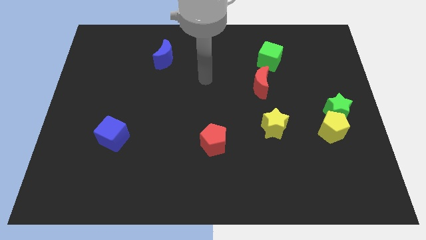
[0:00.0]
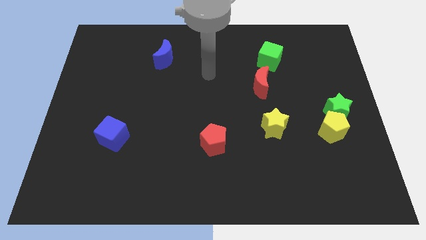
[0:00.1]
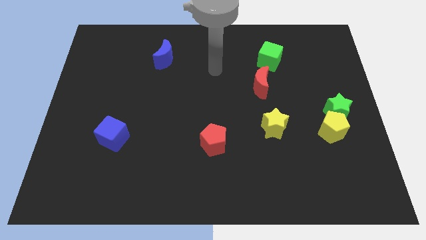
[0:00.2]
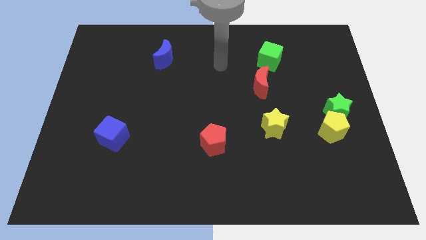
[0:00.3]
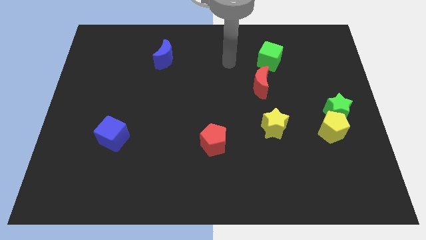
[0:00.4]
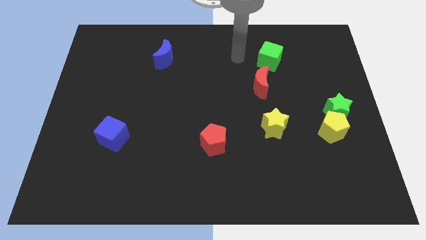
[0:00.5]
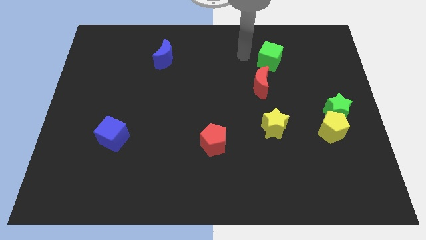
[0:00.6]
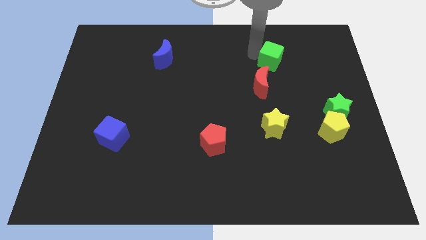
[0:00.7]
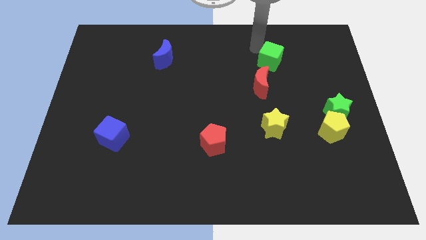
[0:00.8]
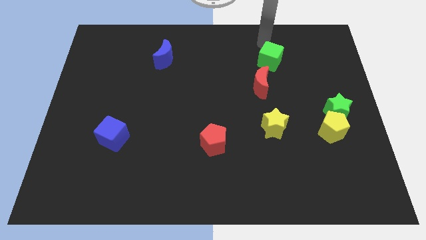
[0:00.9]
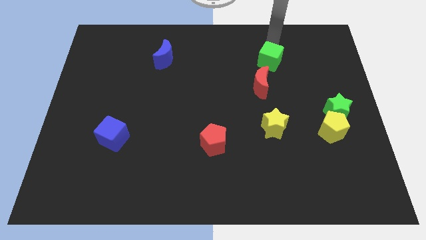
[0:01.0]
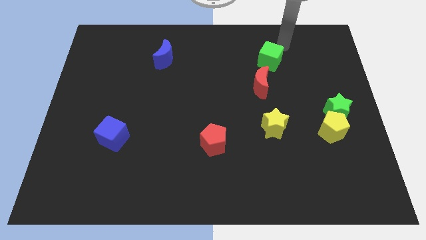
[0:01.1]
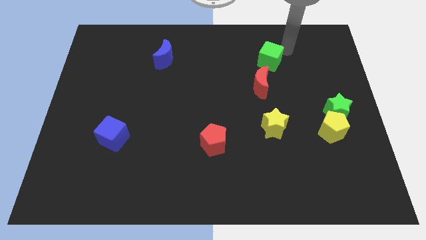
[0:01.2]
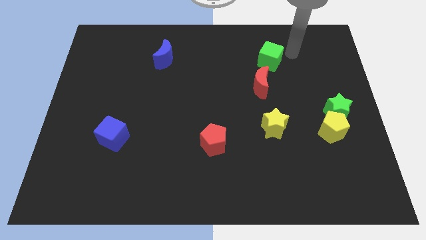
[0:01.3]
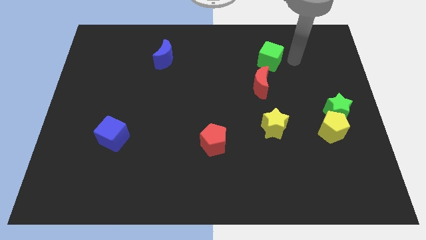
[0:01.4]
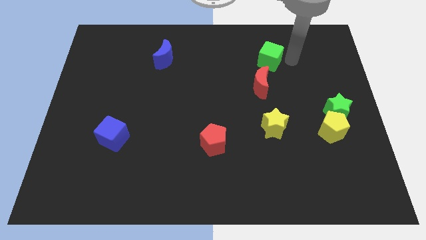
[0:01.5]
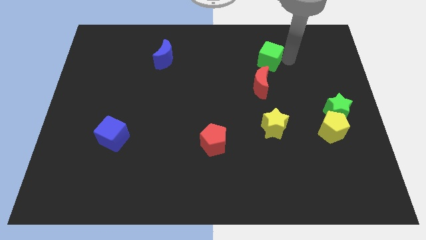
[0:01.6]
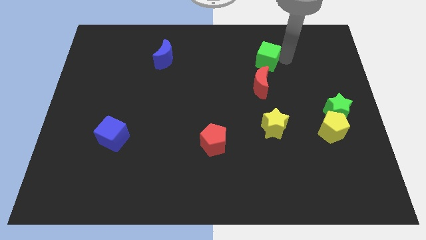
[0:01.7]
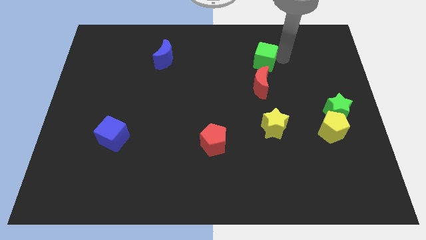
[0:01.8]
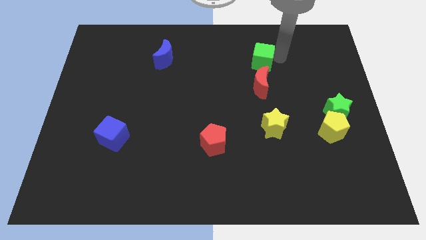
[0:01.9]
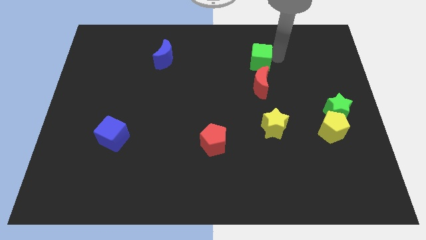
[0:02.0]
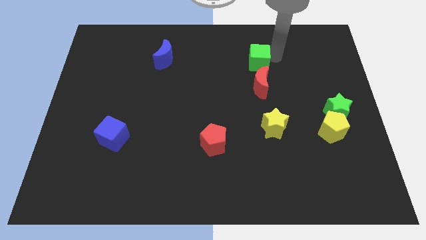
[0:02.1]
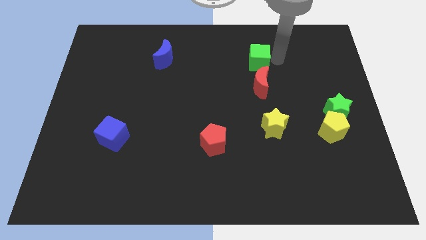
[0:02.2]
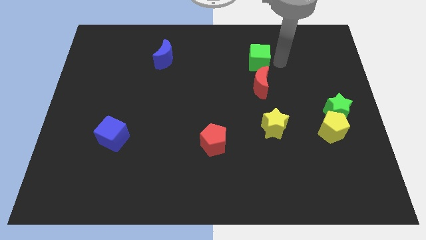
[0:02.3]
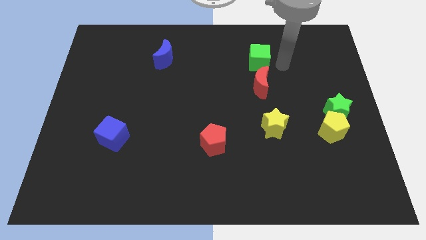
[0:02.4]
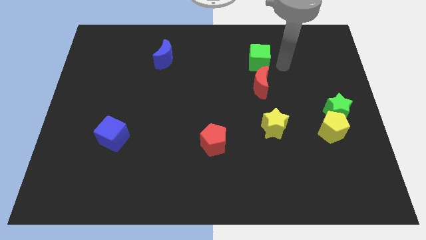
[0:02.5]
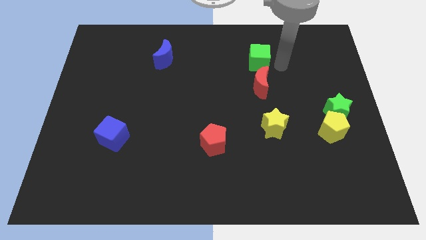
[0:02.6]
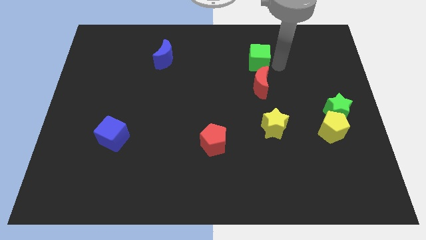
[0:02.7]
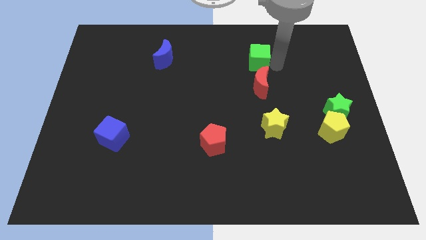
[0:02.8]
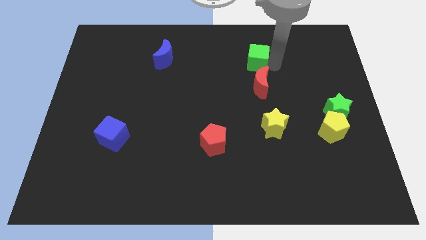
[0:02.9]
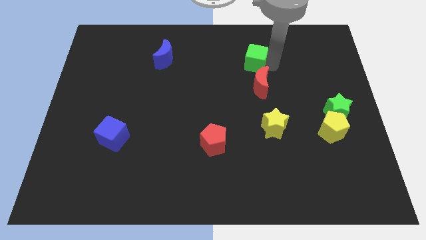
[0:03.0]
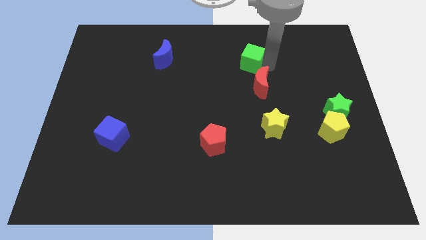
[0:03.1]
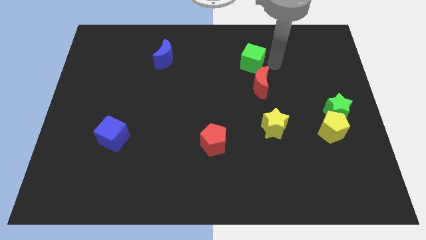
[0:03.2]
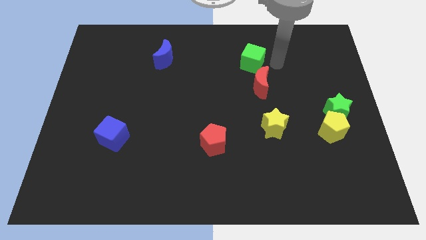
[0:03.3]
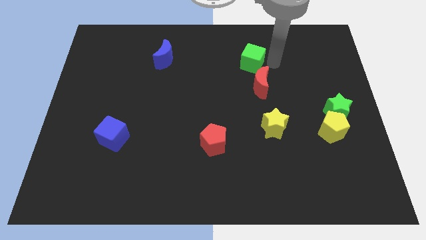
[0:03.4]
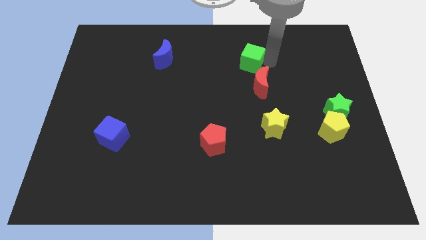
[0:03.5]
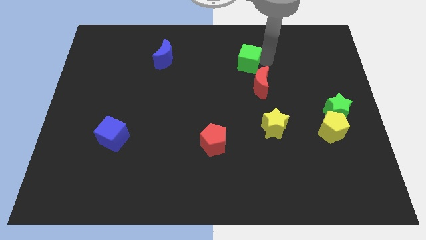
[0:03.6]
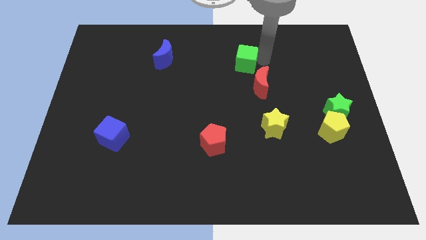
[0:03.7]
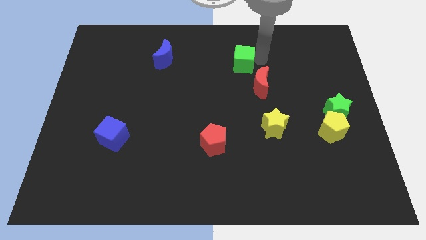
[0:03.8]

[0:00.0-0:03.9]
slightly move the green cube to the left

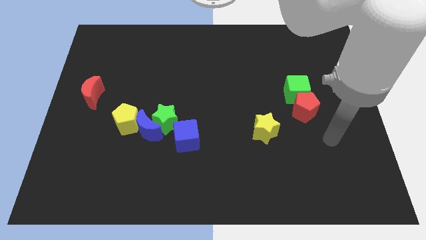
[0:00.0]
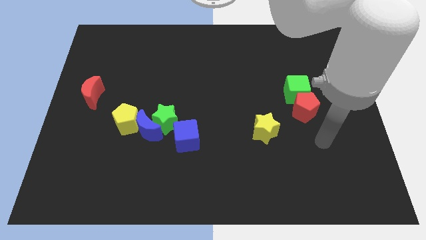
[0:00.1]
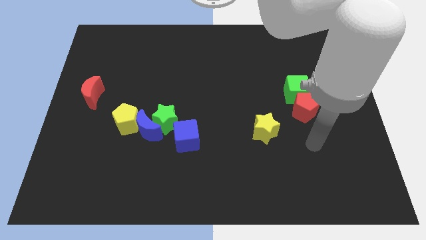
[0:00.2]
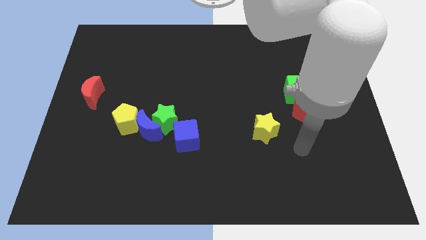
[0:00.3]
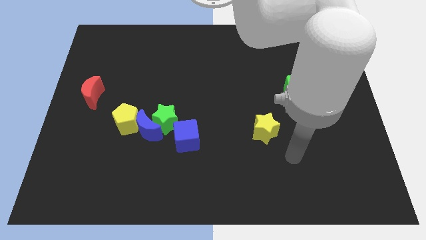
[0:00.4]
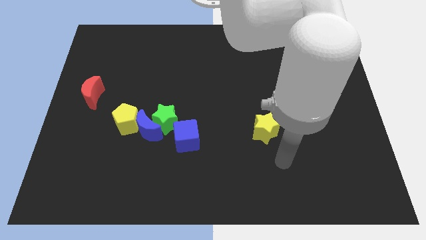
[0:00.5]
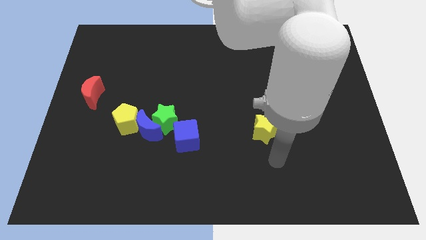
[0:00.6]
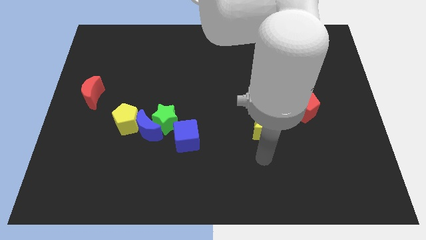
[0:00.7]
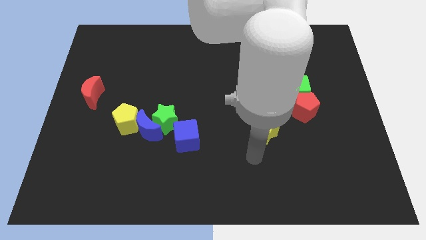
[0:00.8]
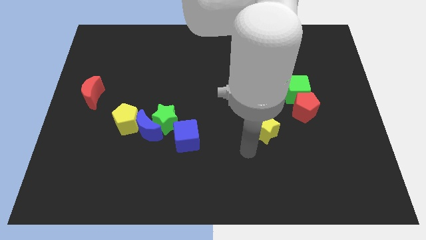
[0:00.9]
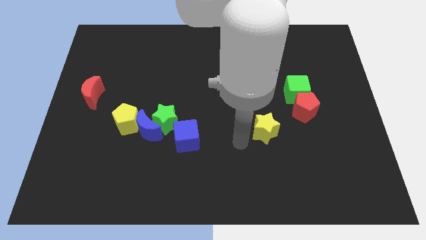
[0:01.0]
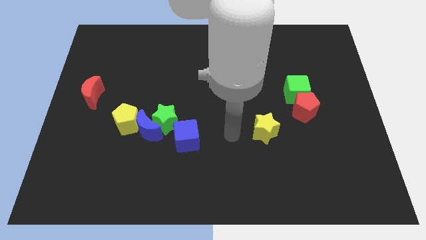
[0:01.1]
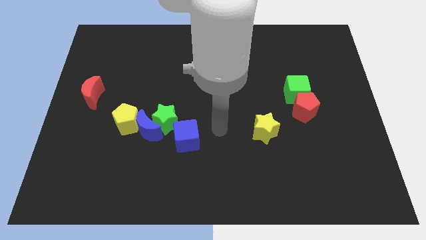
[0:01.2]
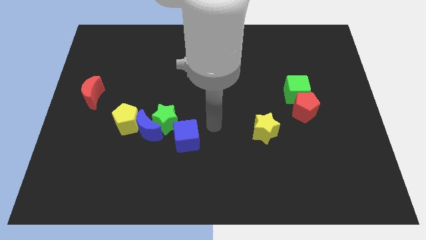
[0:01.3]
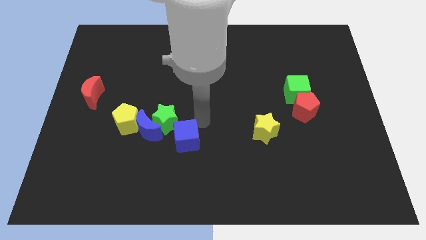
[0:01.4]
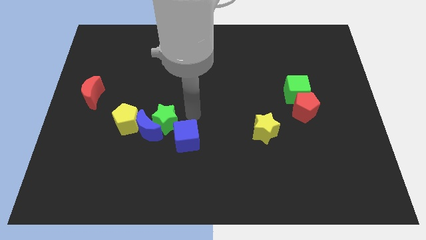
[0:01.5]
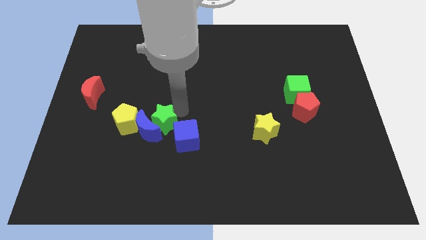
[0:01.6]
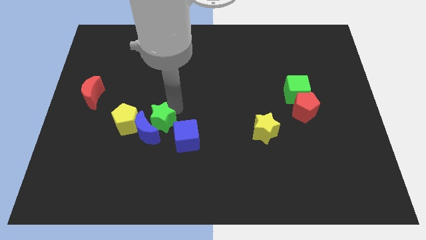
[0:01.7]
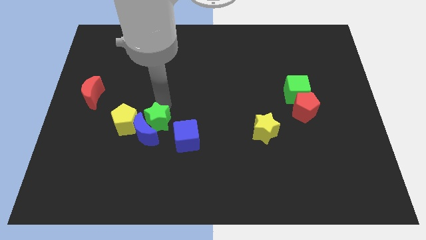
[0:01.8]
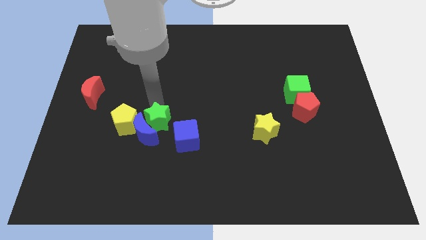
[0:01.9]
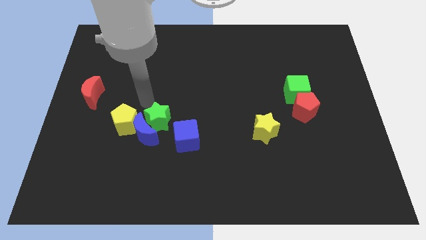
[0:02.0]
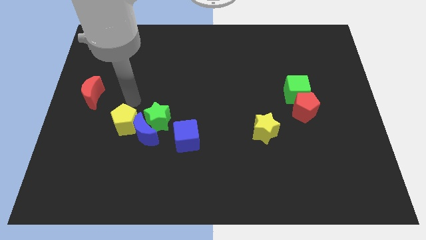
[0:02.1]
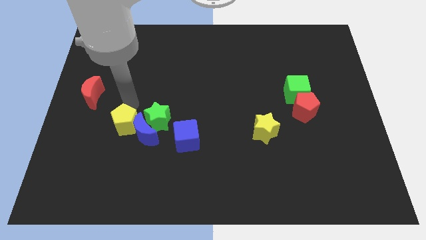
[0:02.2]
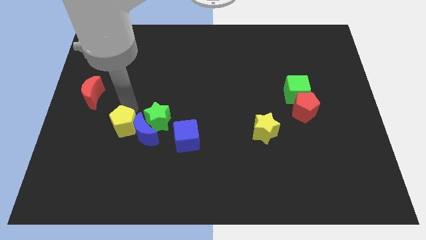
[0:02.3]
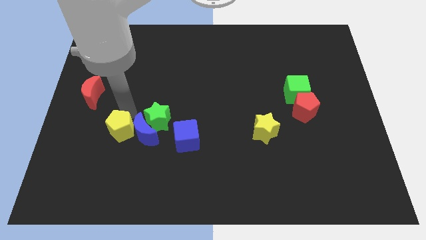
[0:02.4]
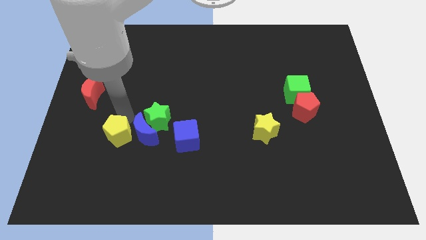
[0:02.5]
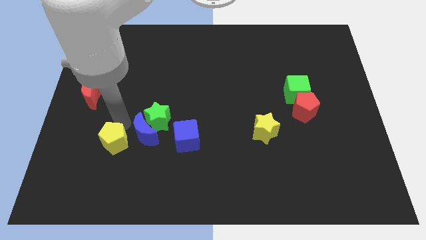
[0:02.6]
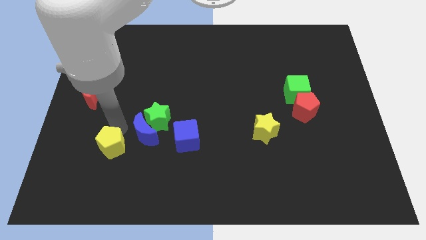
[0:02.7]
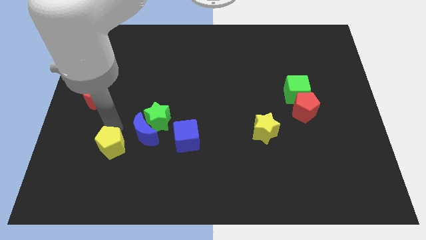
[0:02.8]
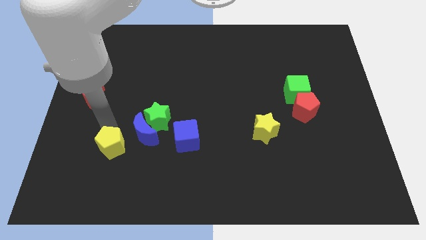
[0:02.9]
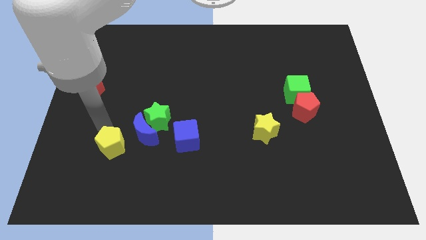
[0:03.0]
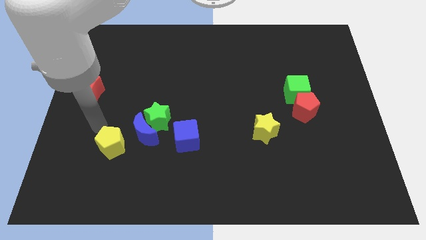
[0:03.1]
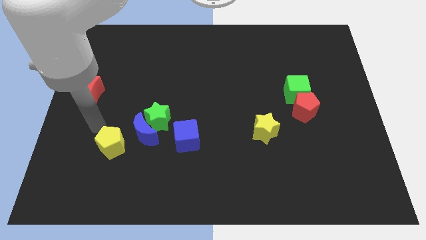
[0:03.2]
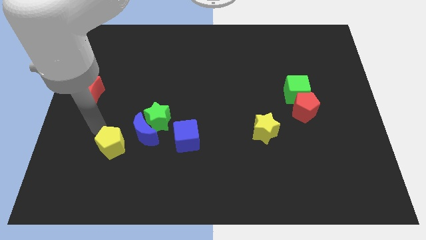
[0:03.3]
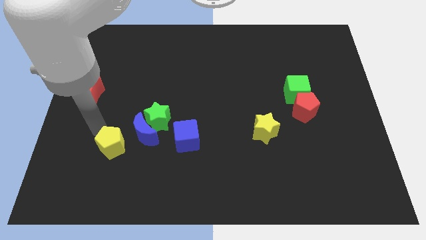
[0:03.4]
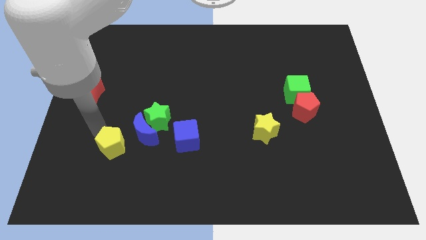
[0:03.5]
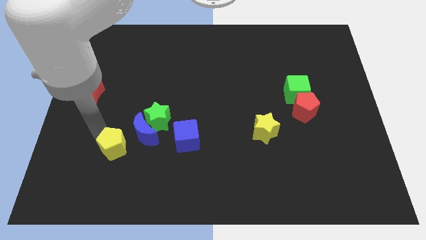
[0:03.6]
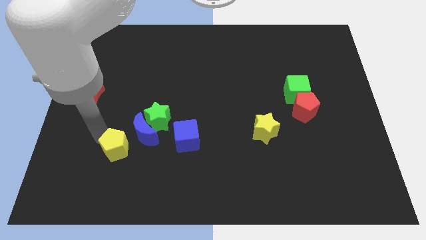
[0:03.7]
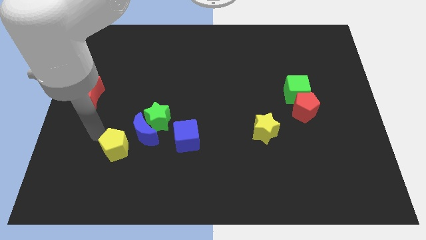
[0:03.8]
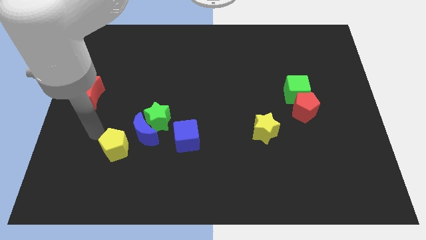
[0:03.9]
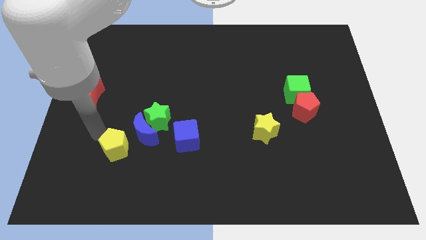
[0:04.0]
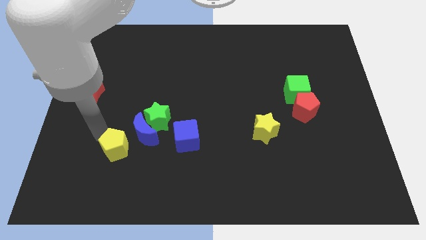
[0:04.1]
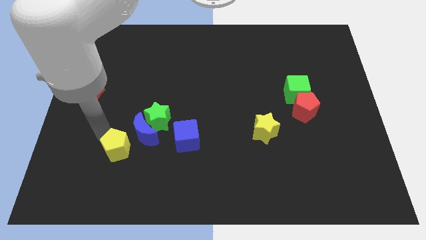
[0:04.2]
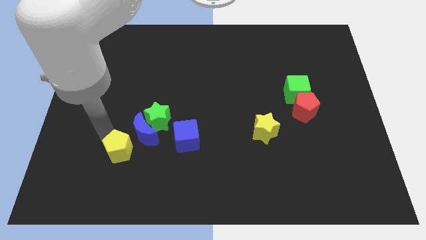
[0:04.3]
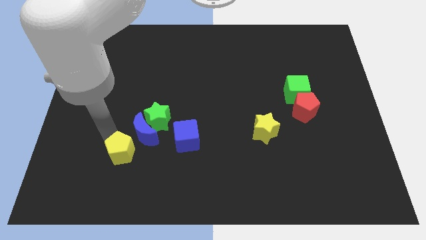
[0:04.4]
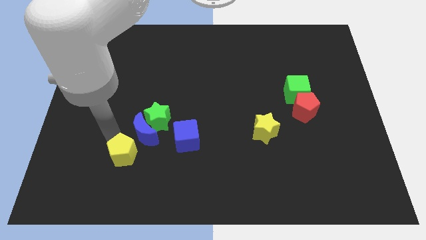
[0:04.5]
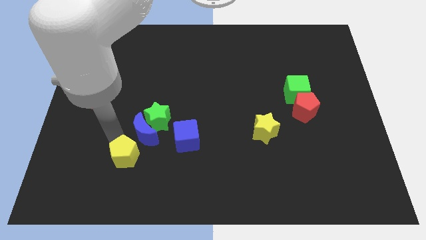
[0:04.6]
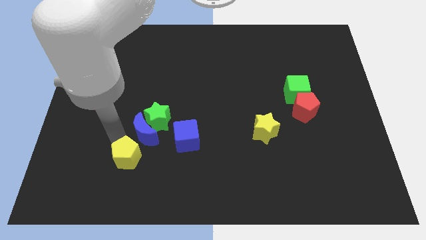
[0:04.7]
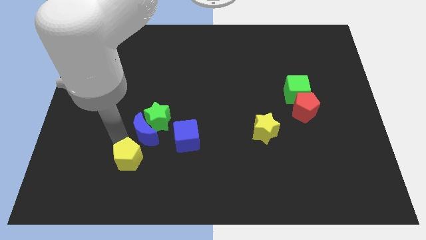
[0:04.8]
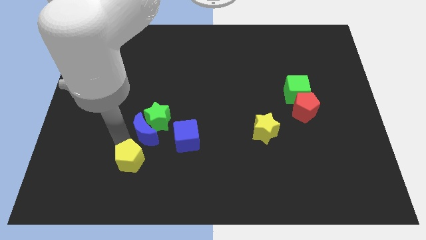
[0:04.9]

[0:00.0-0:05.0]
push the yellow pentagon a little down and to the right
